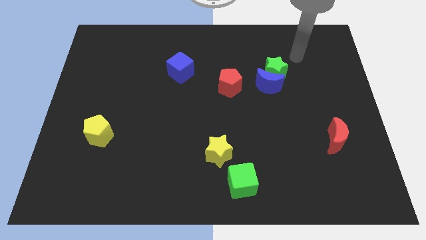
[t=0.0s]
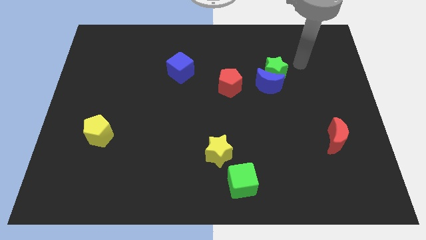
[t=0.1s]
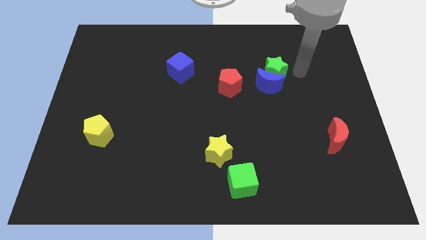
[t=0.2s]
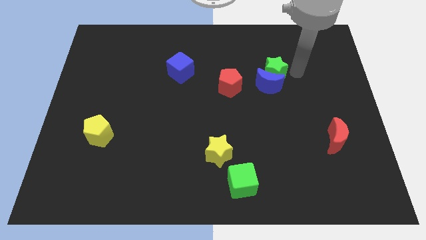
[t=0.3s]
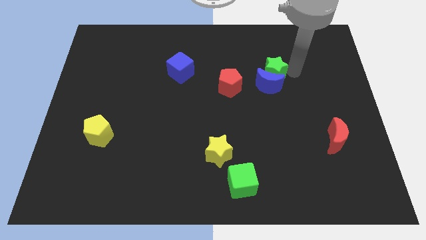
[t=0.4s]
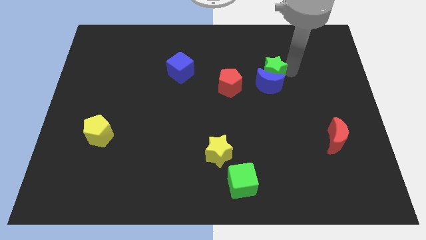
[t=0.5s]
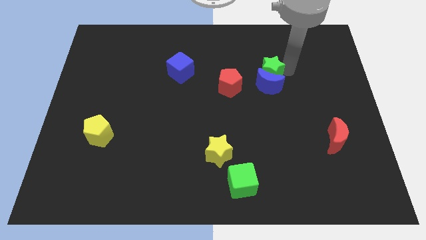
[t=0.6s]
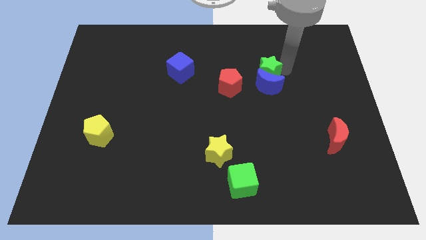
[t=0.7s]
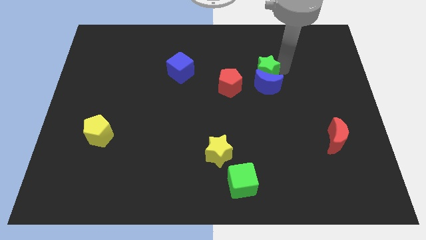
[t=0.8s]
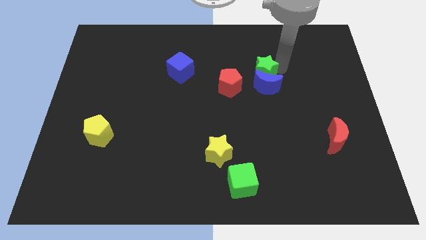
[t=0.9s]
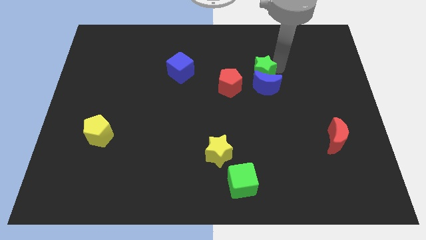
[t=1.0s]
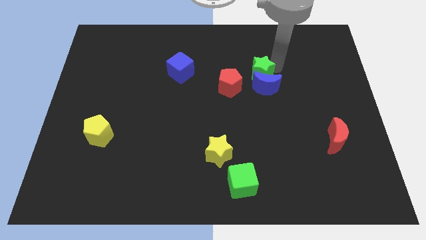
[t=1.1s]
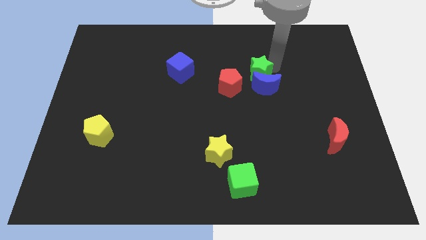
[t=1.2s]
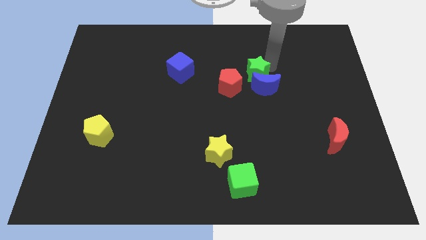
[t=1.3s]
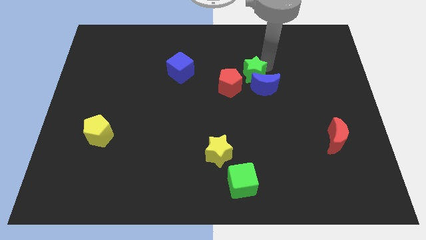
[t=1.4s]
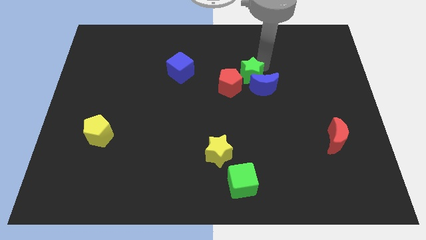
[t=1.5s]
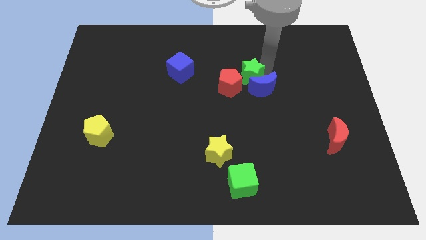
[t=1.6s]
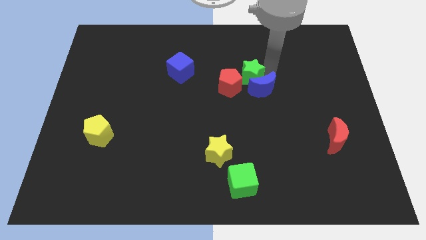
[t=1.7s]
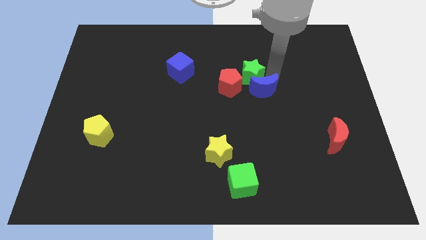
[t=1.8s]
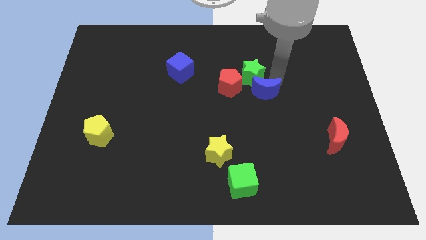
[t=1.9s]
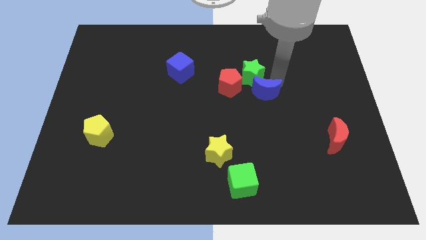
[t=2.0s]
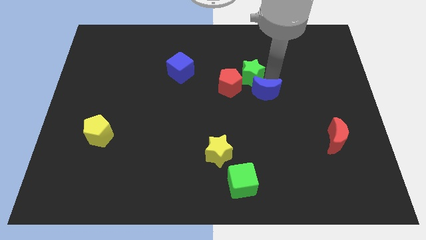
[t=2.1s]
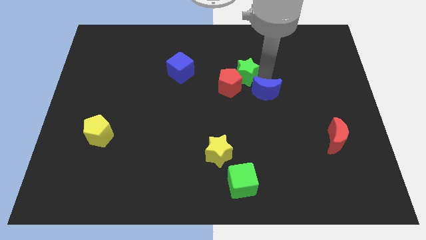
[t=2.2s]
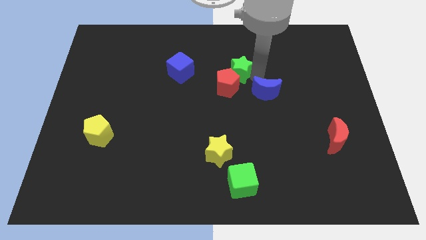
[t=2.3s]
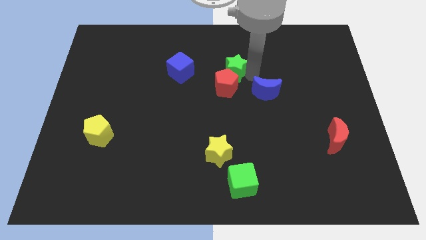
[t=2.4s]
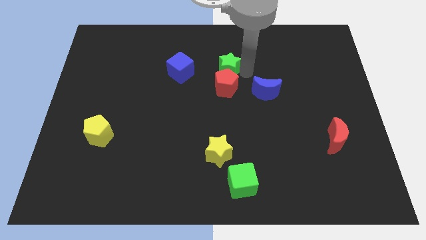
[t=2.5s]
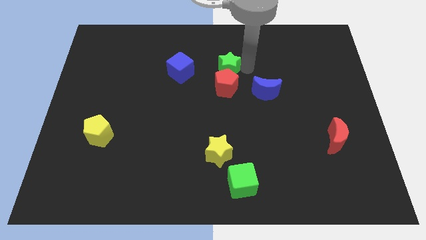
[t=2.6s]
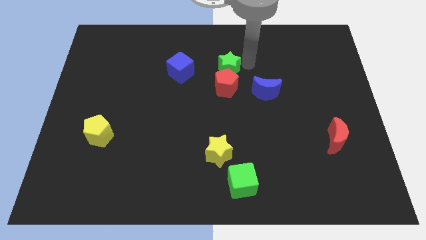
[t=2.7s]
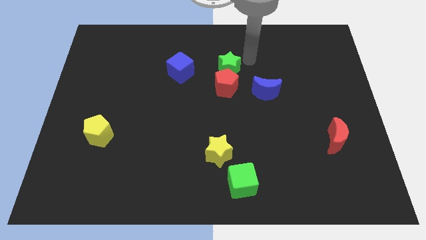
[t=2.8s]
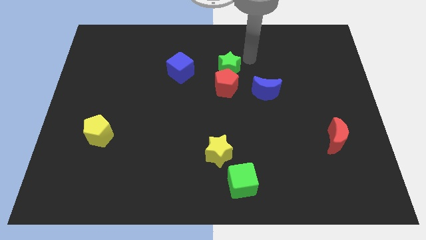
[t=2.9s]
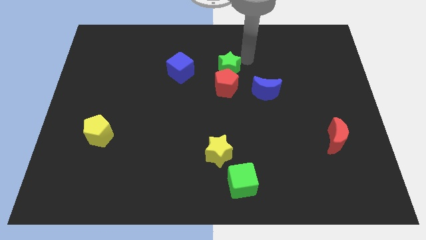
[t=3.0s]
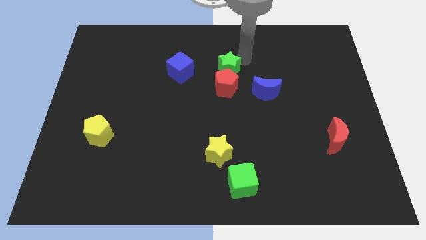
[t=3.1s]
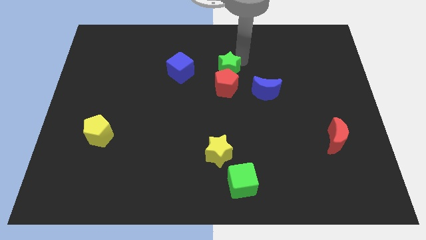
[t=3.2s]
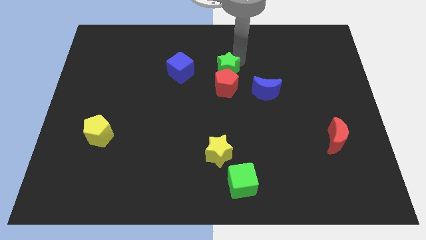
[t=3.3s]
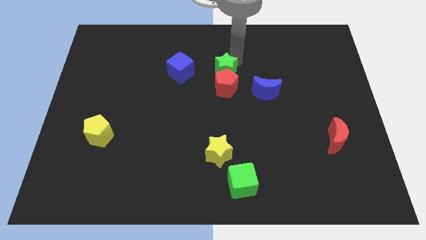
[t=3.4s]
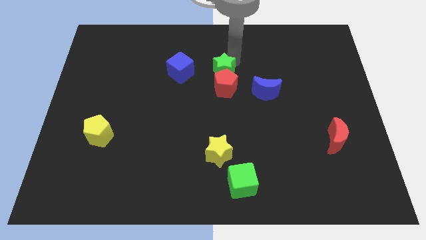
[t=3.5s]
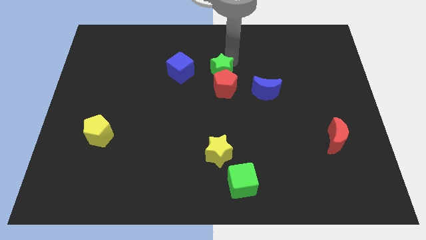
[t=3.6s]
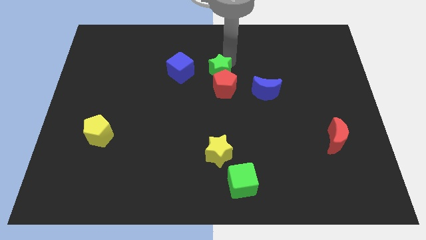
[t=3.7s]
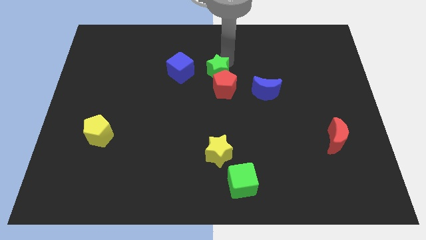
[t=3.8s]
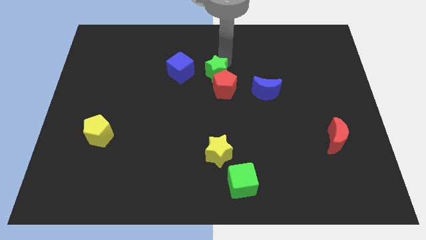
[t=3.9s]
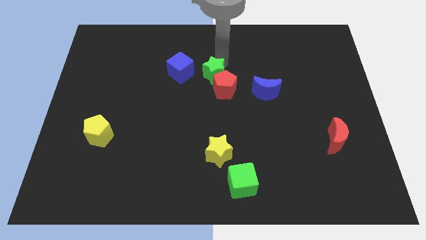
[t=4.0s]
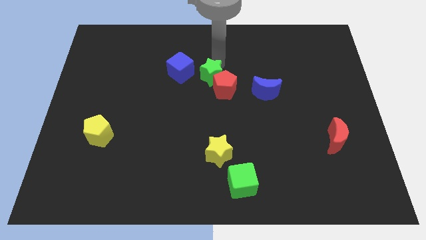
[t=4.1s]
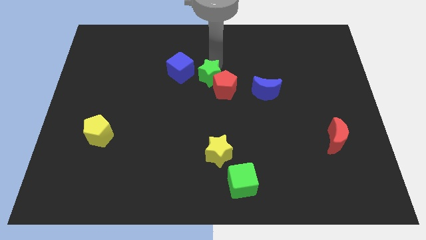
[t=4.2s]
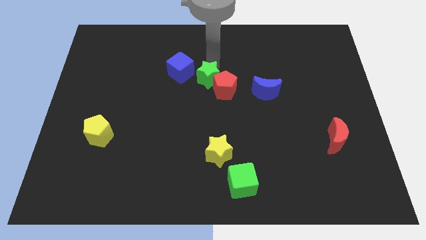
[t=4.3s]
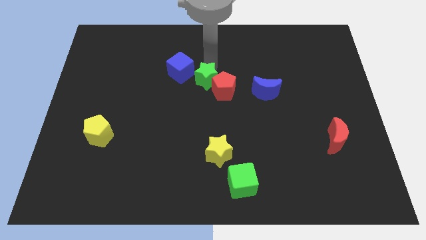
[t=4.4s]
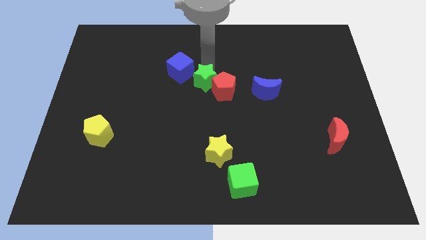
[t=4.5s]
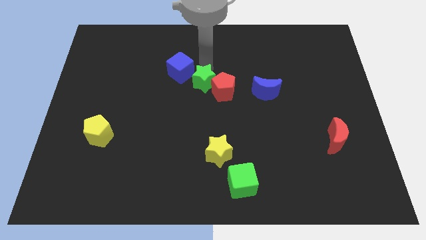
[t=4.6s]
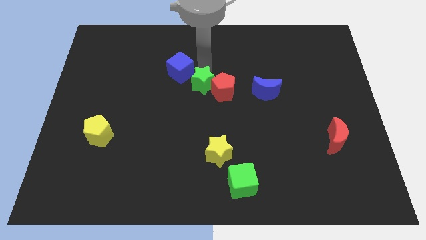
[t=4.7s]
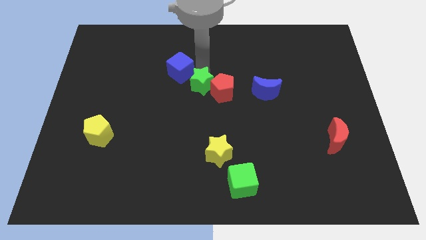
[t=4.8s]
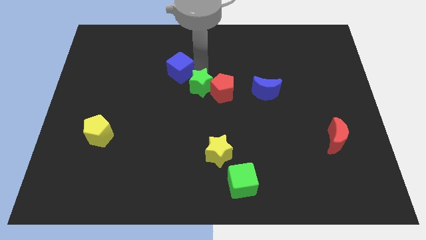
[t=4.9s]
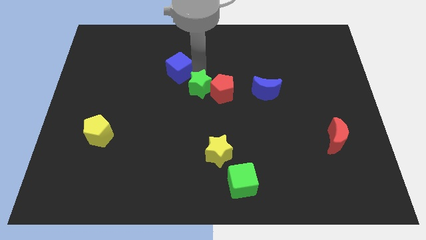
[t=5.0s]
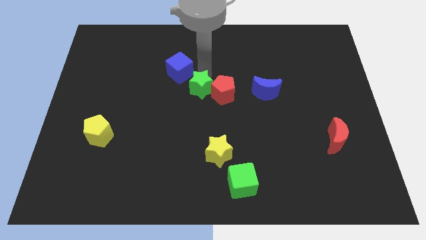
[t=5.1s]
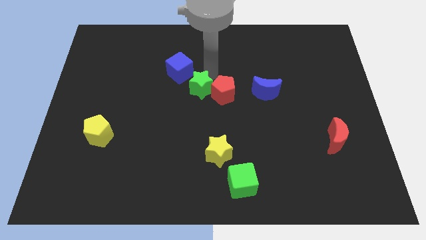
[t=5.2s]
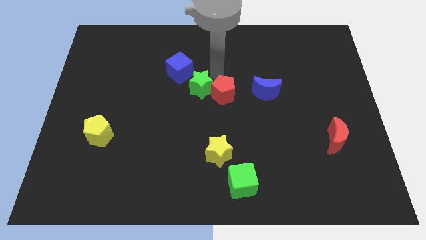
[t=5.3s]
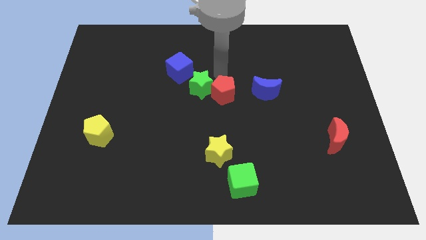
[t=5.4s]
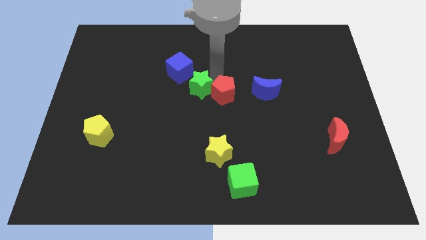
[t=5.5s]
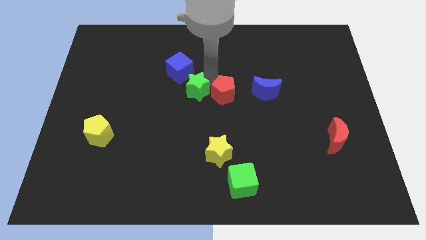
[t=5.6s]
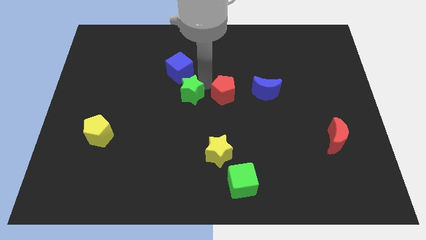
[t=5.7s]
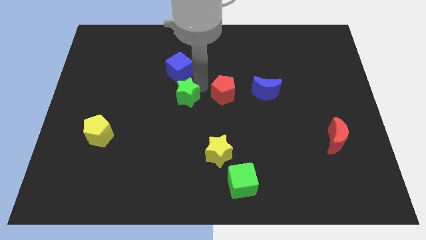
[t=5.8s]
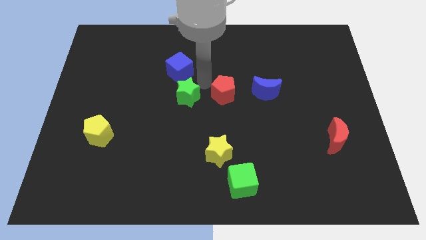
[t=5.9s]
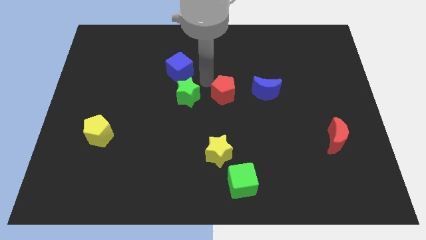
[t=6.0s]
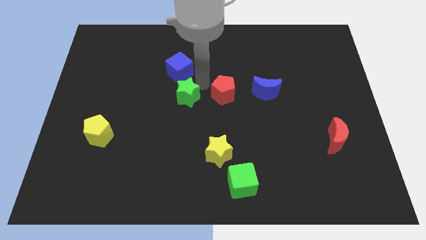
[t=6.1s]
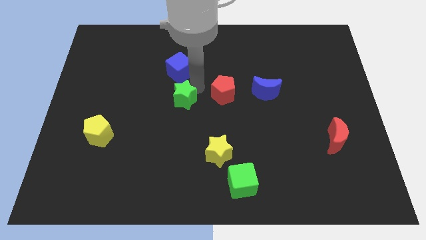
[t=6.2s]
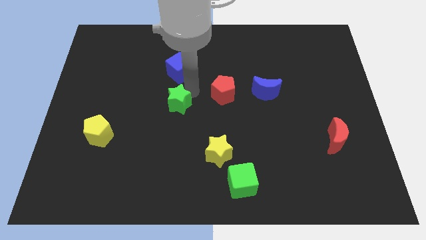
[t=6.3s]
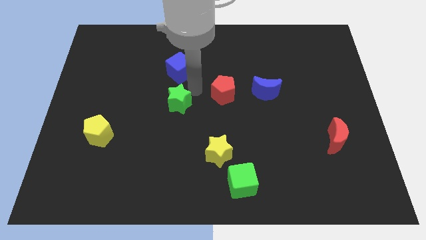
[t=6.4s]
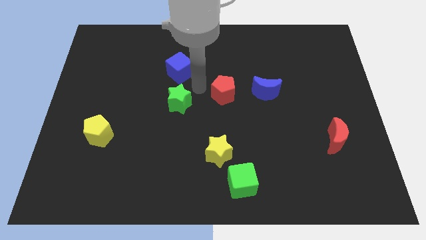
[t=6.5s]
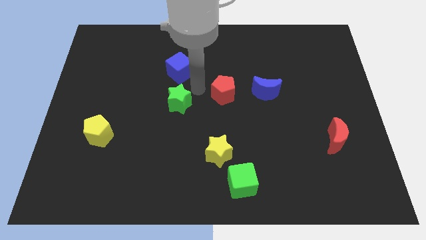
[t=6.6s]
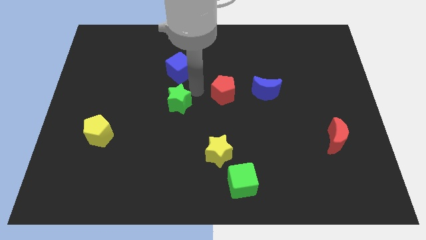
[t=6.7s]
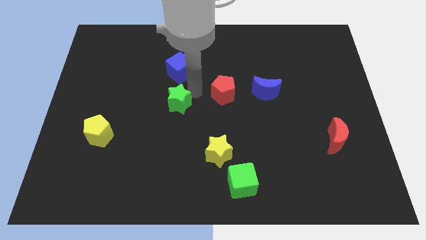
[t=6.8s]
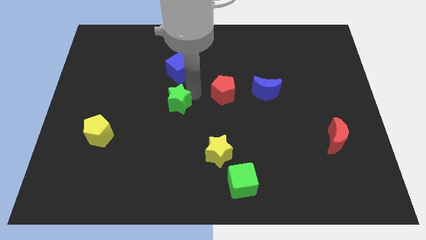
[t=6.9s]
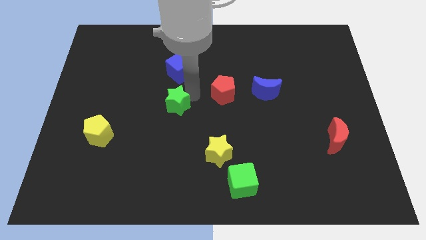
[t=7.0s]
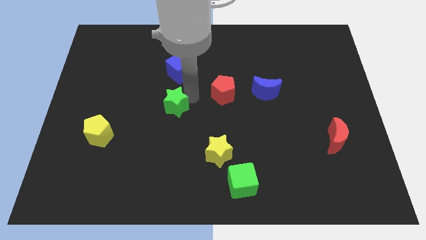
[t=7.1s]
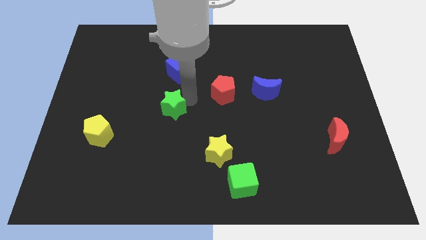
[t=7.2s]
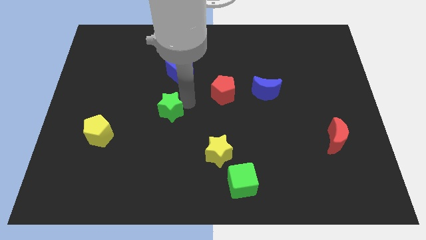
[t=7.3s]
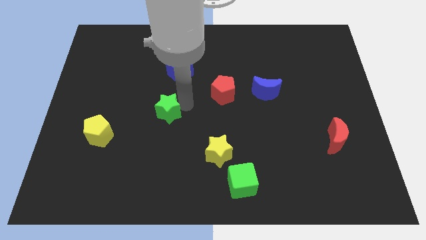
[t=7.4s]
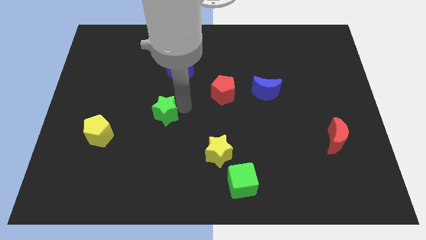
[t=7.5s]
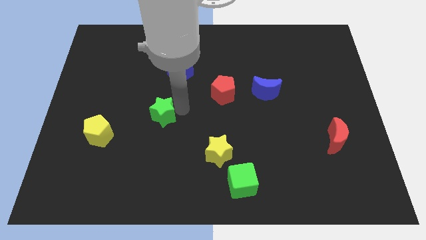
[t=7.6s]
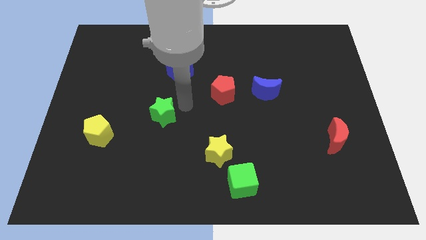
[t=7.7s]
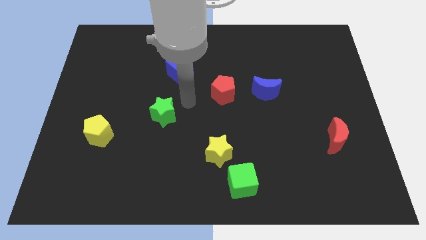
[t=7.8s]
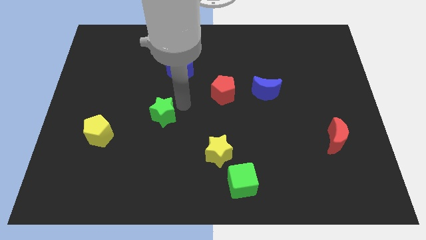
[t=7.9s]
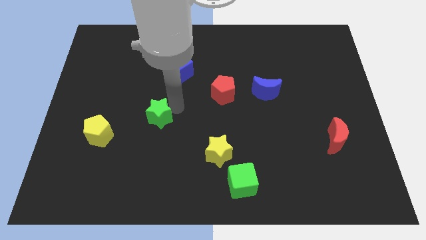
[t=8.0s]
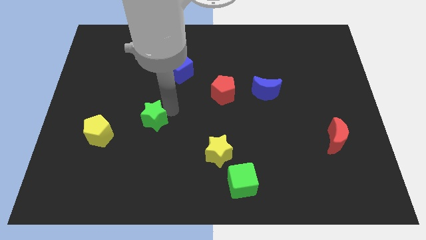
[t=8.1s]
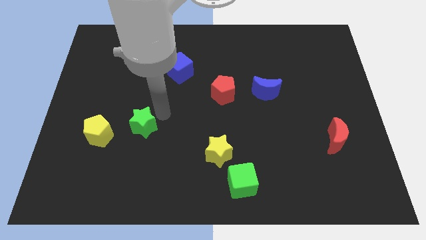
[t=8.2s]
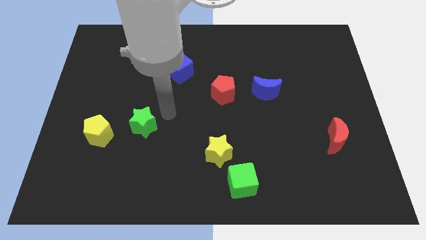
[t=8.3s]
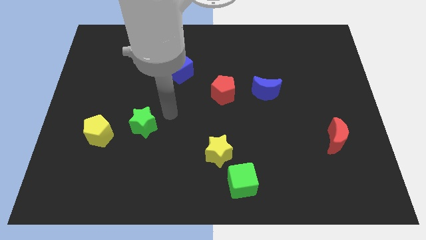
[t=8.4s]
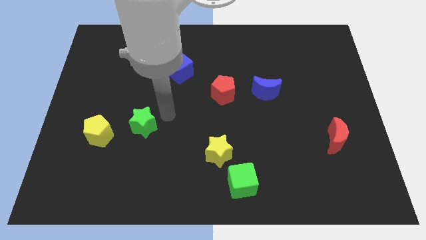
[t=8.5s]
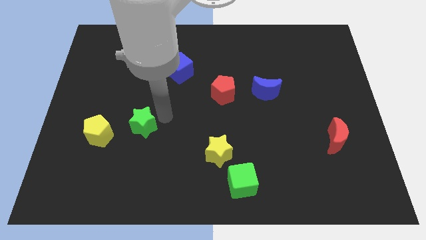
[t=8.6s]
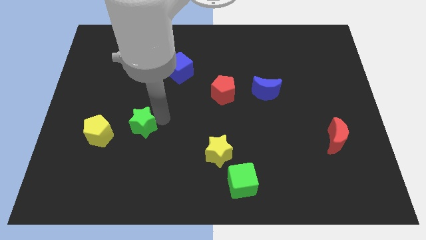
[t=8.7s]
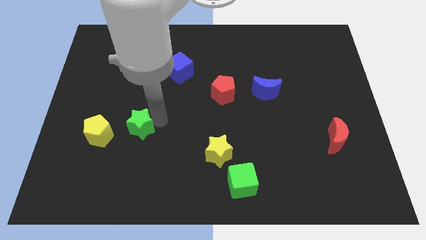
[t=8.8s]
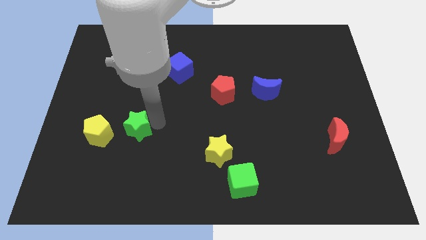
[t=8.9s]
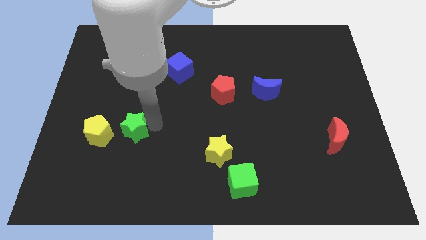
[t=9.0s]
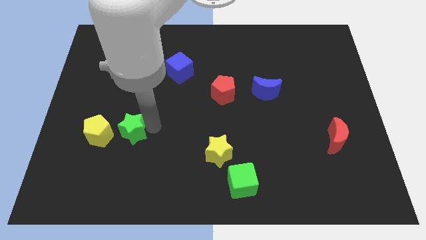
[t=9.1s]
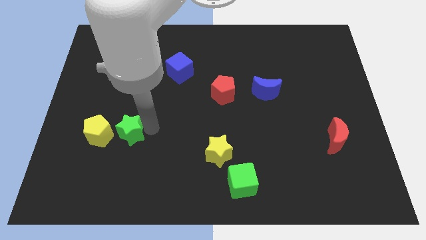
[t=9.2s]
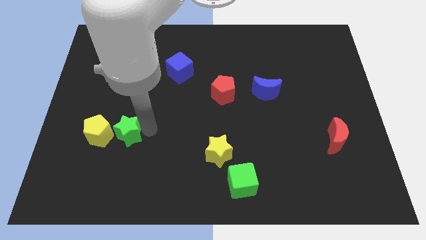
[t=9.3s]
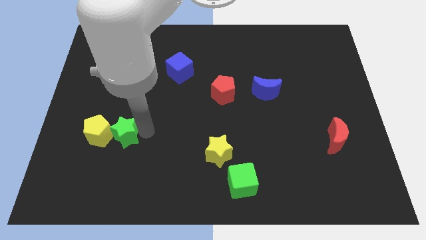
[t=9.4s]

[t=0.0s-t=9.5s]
slide the green star next to the yellow pentagon
